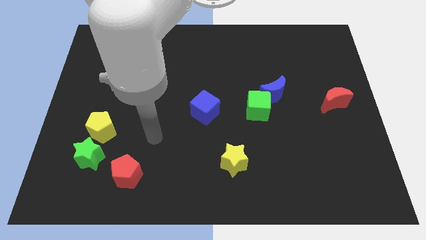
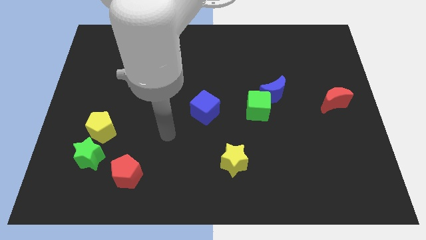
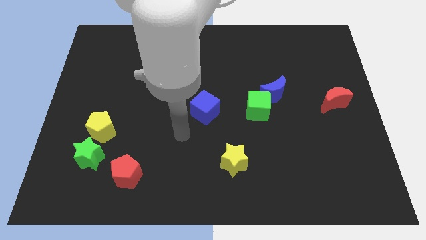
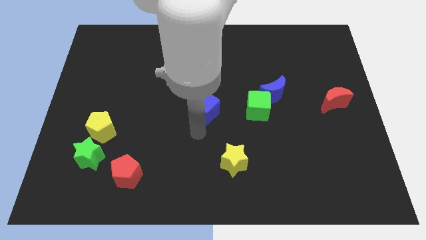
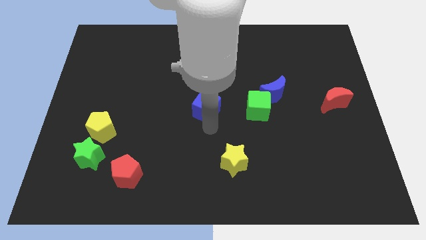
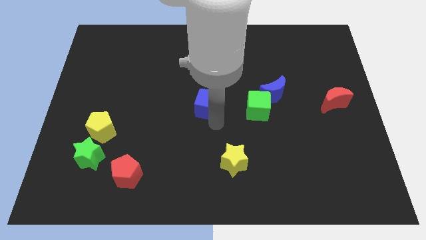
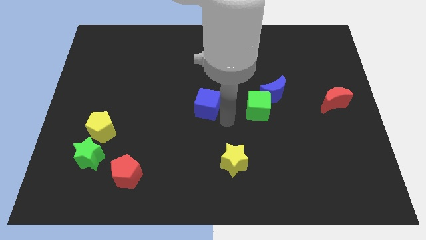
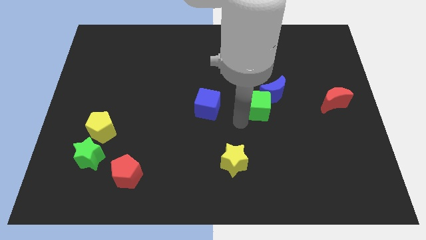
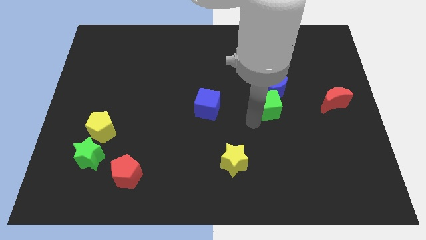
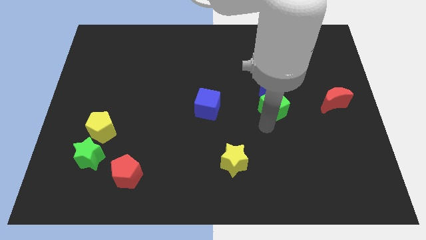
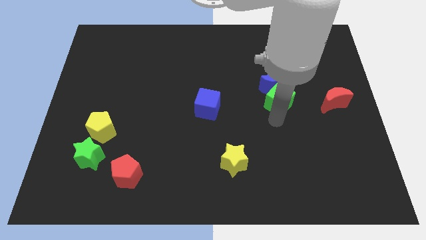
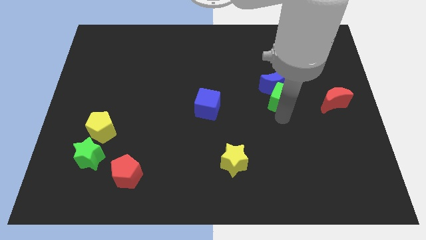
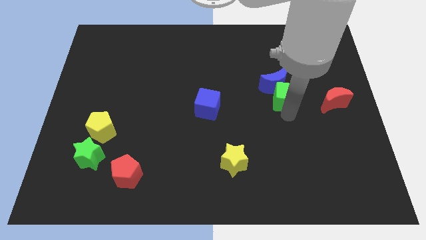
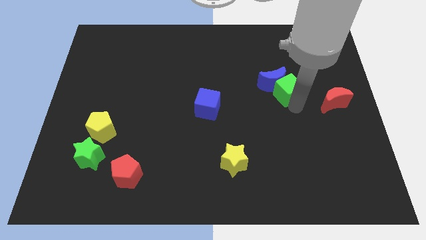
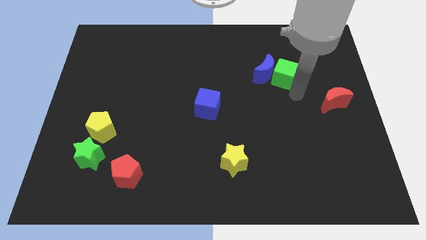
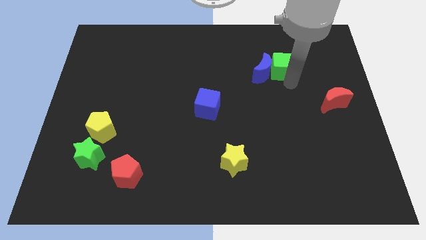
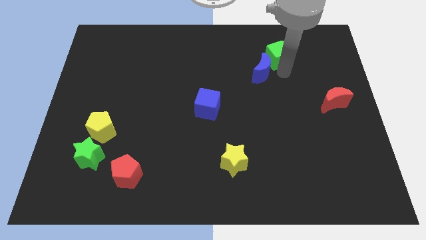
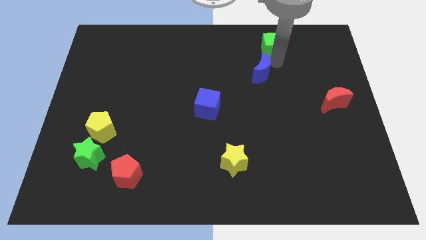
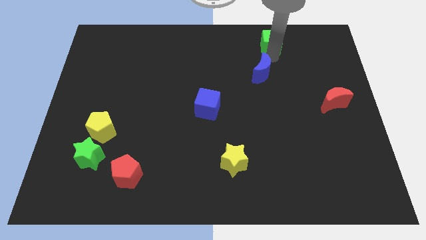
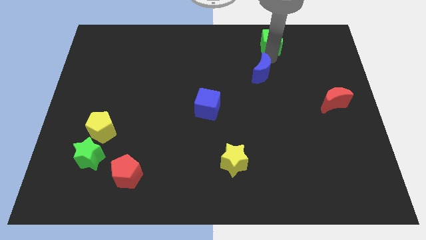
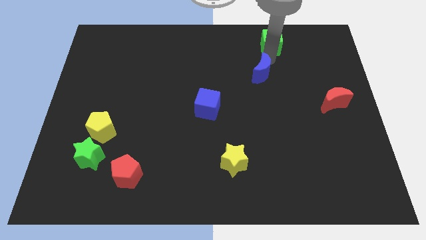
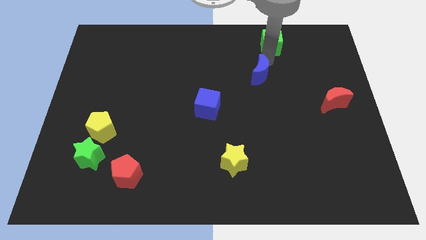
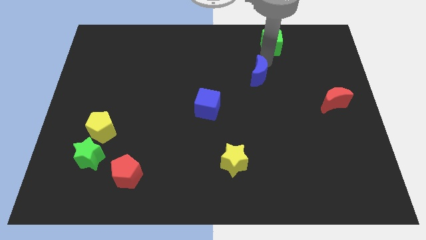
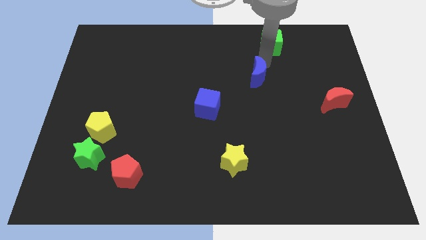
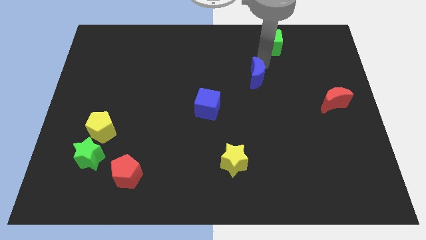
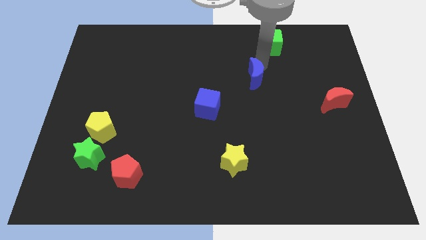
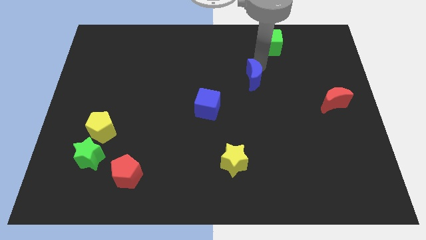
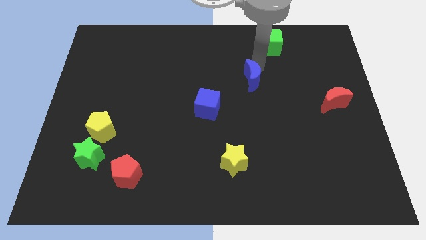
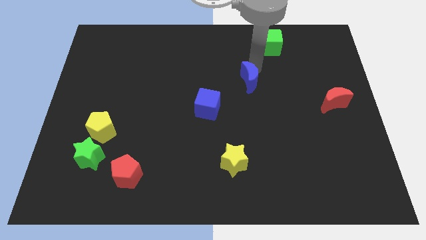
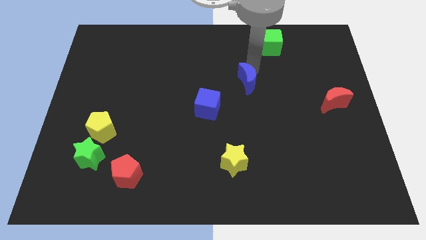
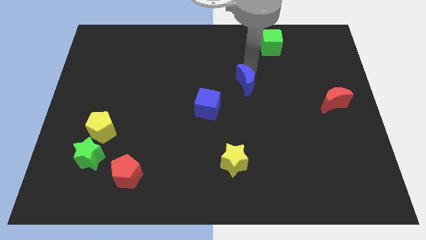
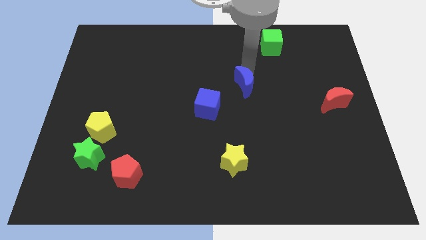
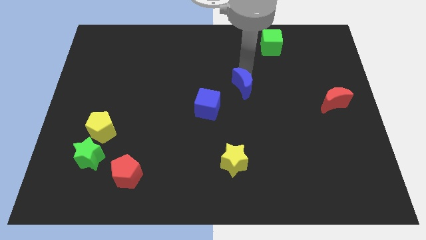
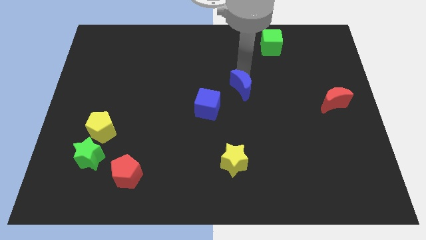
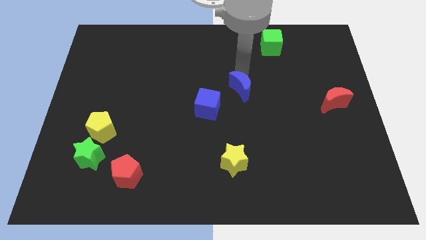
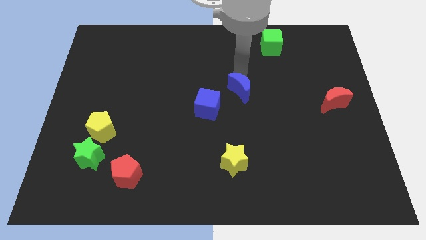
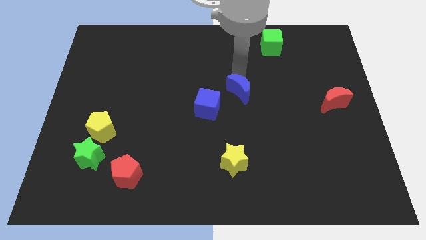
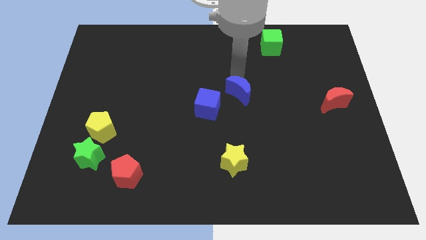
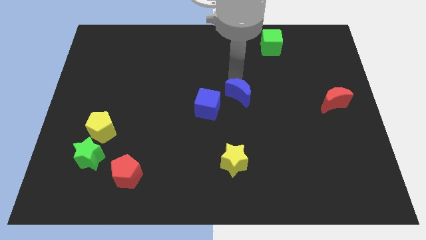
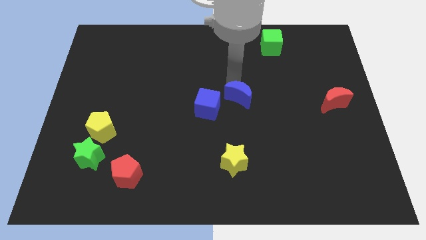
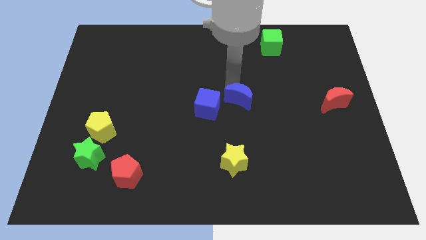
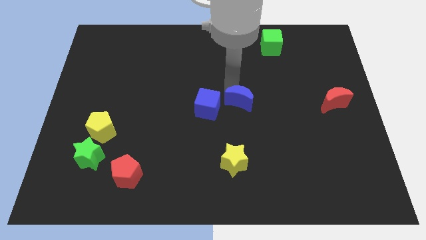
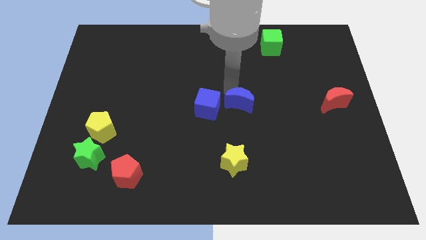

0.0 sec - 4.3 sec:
slide the blue moon a little down and left diagonally

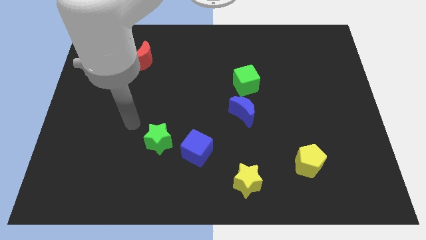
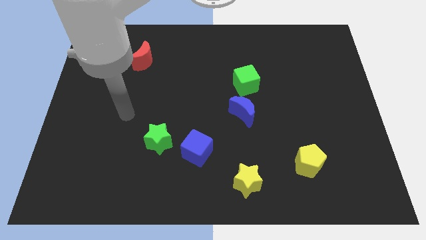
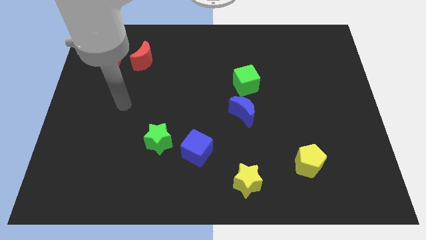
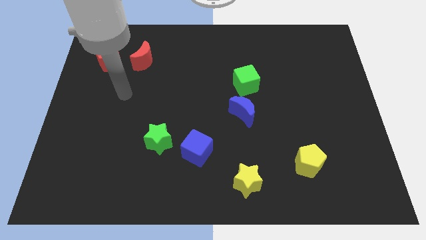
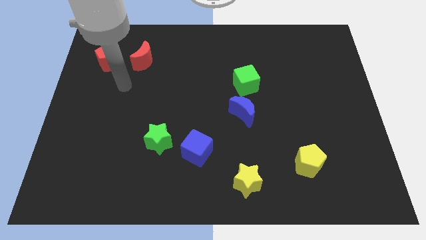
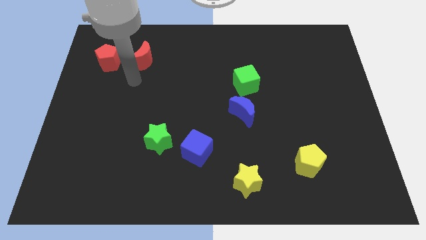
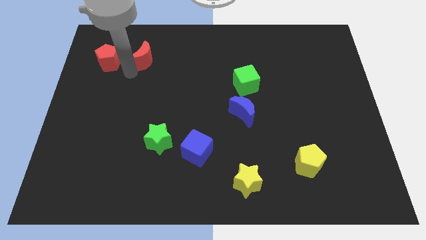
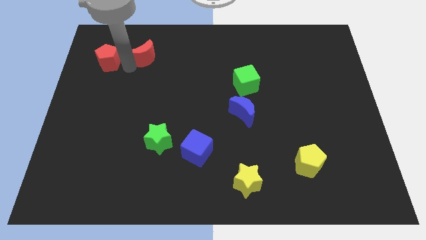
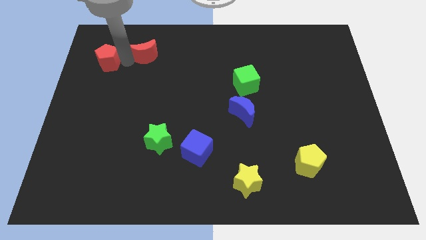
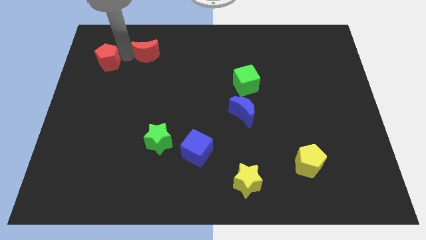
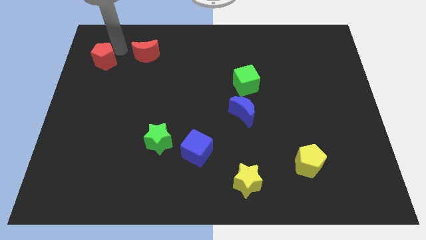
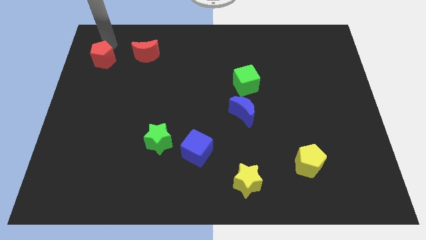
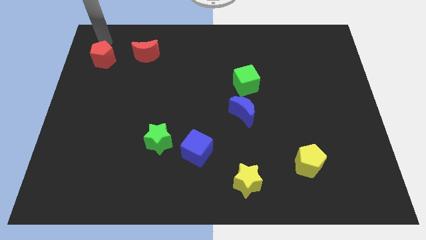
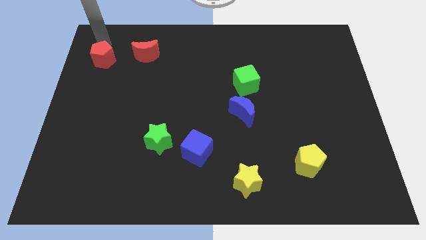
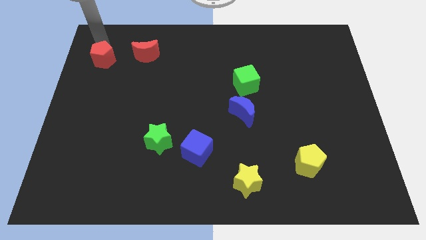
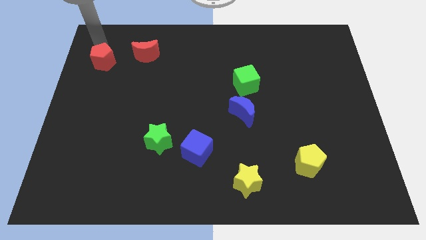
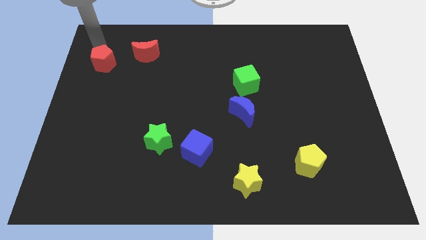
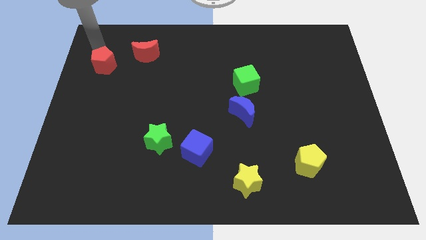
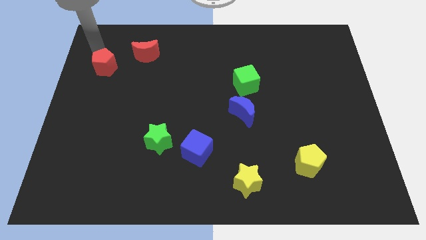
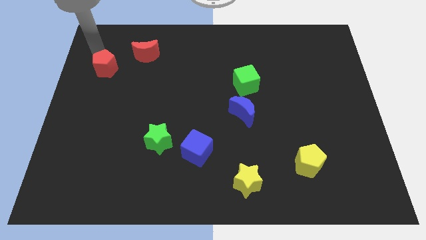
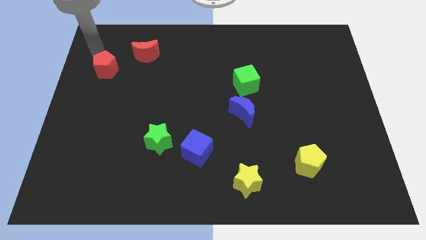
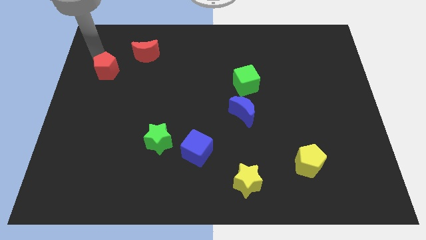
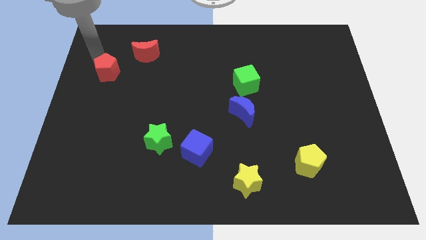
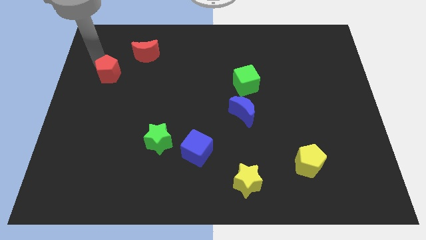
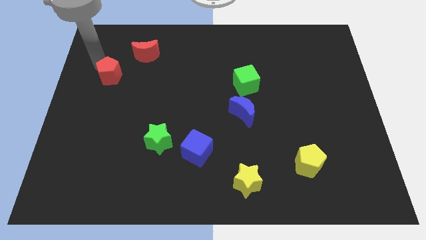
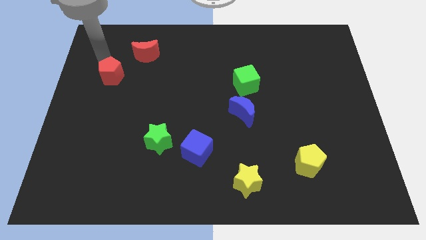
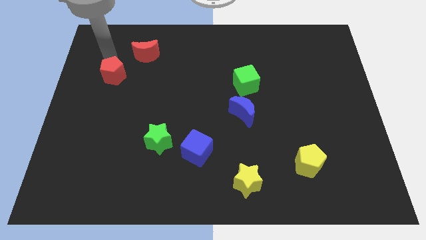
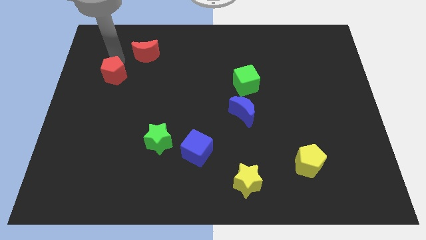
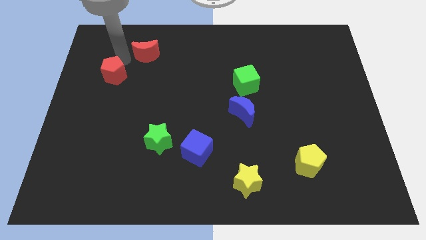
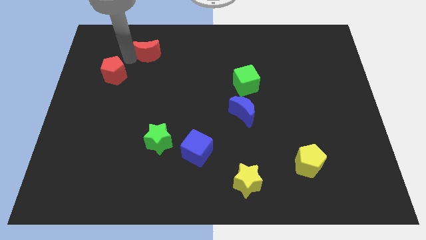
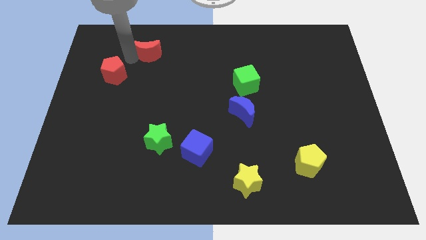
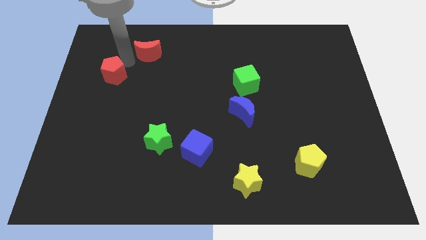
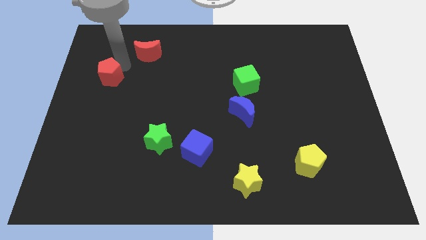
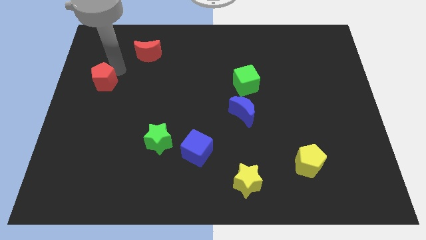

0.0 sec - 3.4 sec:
push the red pentagon downwards a little bit

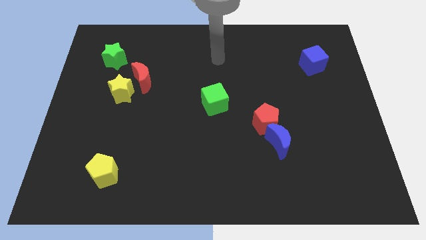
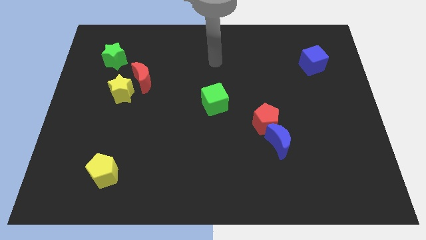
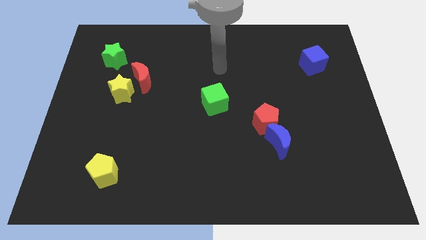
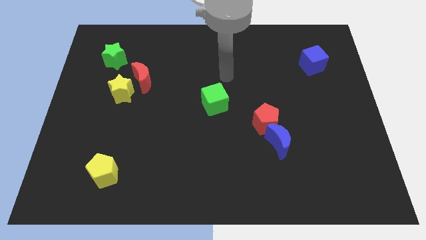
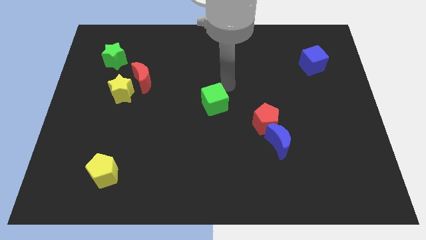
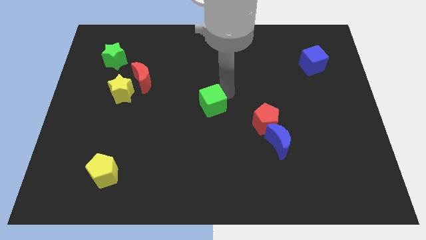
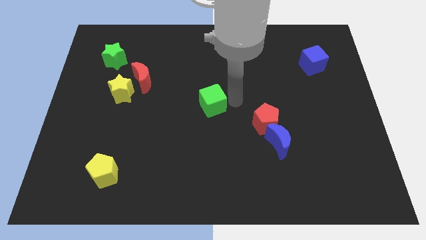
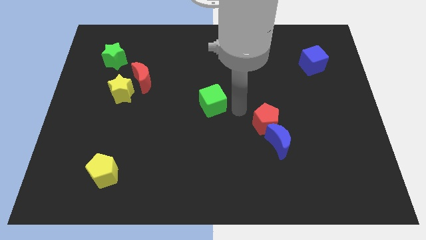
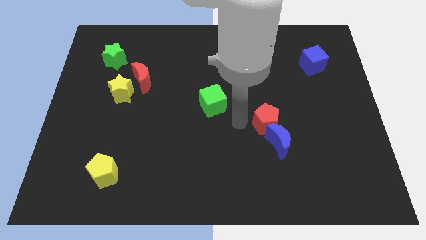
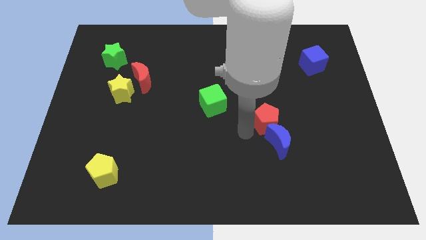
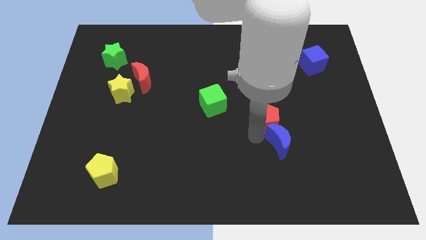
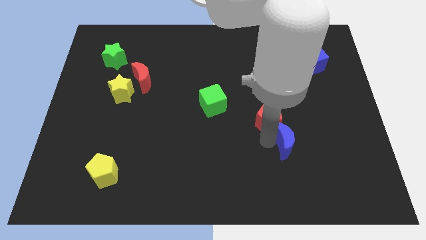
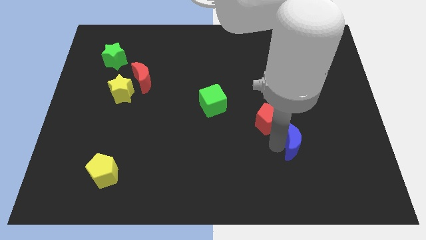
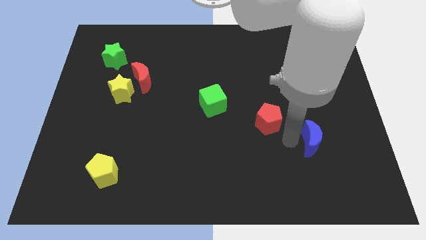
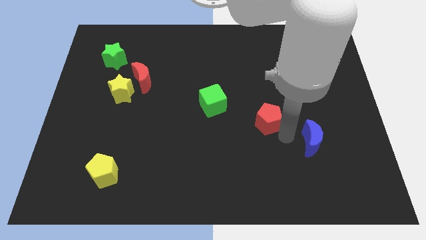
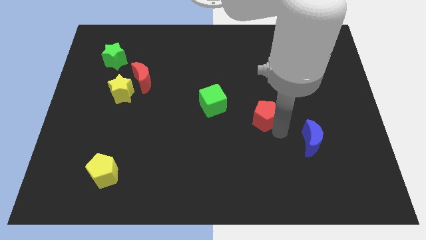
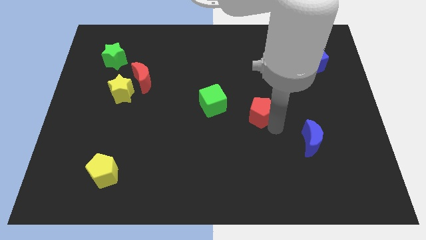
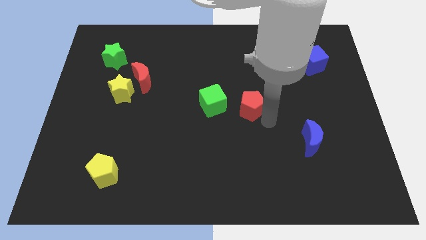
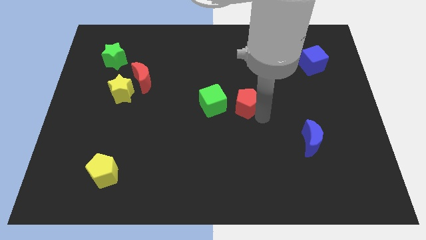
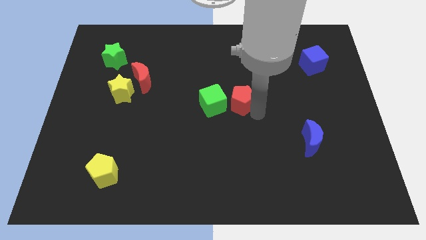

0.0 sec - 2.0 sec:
slide the red pentagon a little bit up and then to the left
